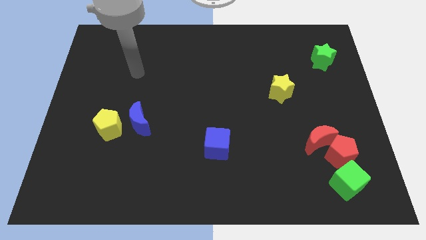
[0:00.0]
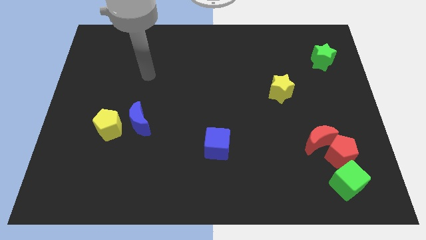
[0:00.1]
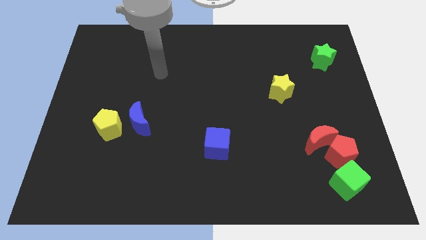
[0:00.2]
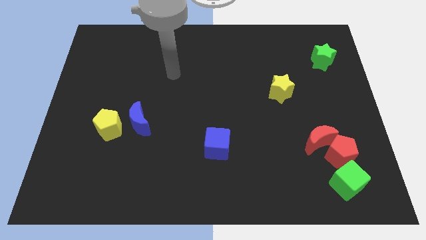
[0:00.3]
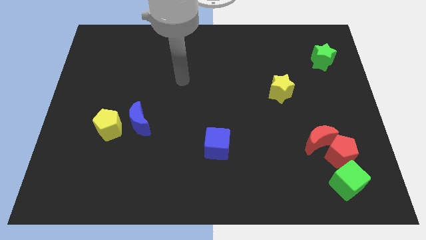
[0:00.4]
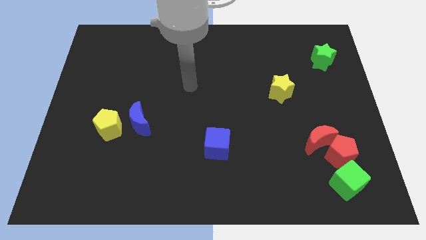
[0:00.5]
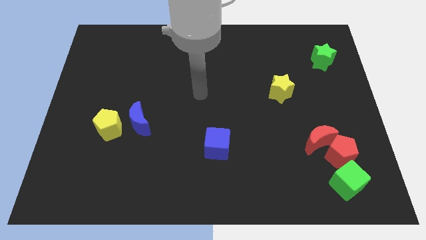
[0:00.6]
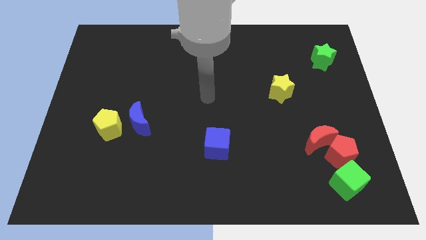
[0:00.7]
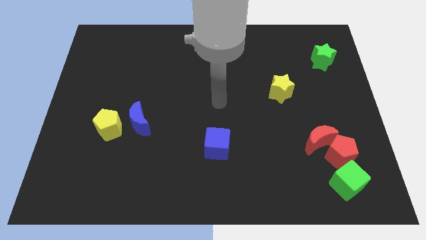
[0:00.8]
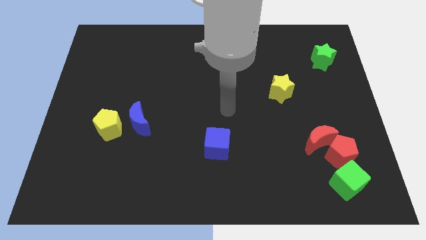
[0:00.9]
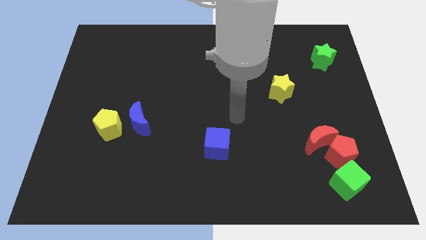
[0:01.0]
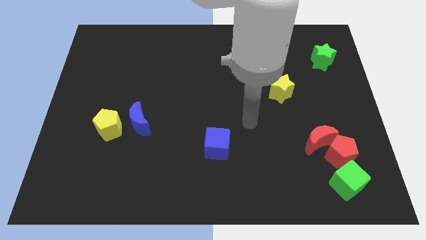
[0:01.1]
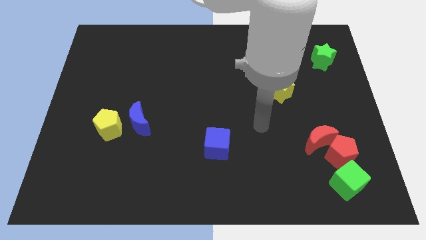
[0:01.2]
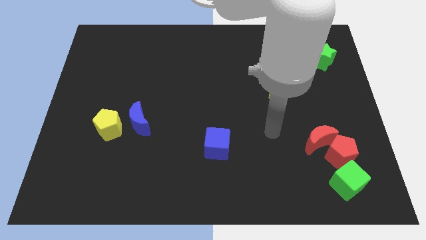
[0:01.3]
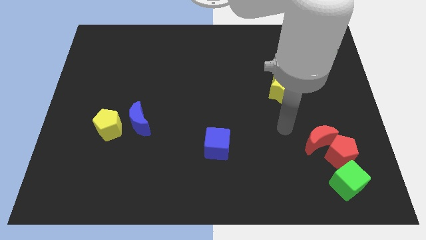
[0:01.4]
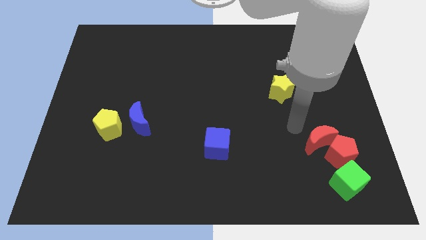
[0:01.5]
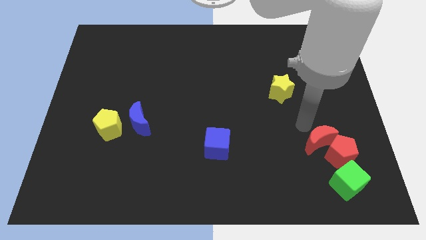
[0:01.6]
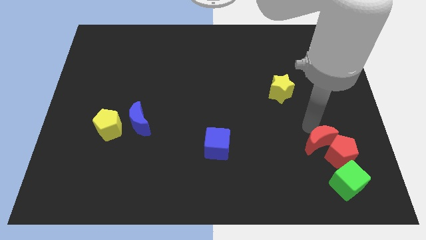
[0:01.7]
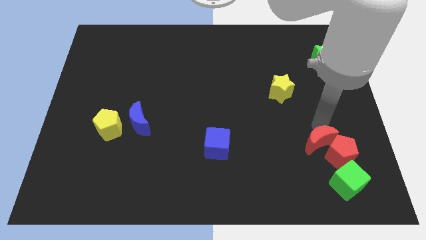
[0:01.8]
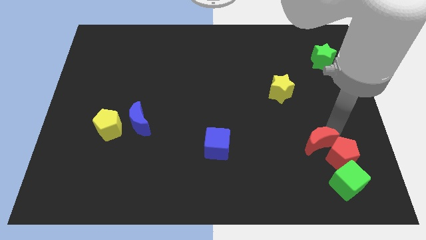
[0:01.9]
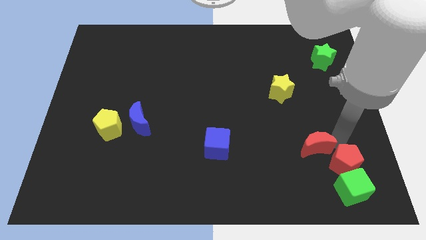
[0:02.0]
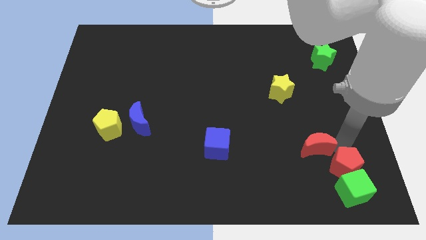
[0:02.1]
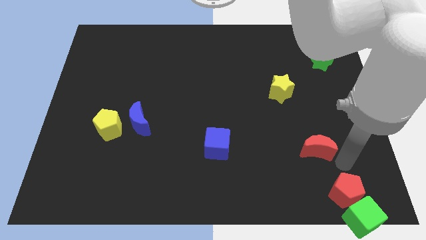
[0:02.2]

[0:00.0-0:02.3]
pull the red moon apart from the red pentagon

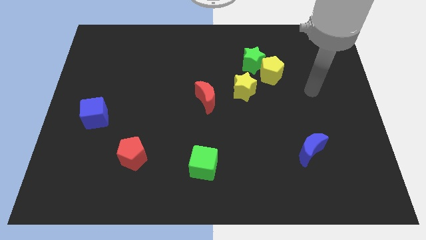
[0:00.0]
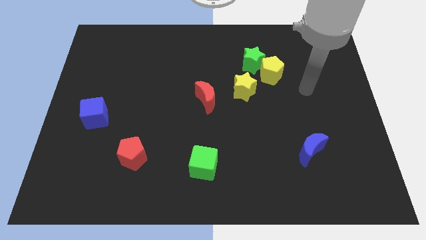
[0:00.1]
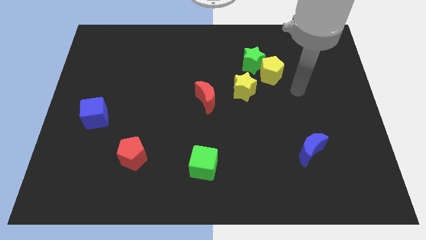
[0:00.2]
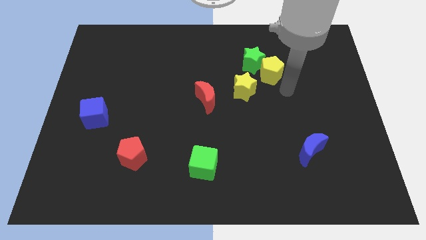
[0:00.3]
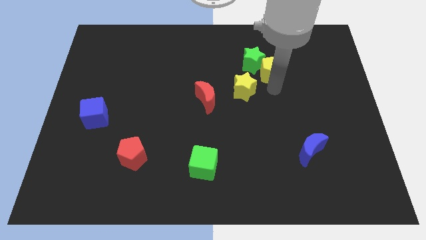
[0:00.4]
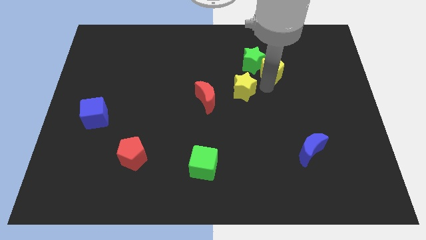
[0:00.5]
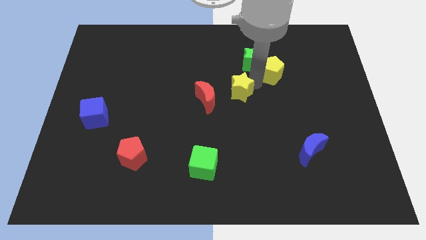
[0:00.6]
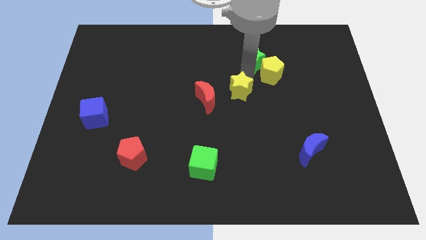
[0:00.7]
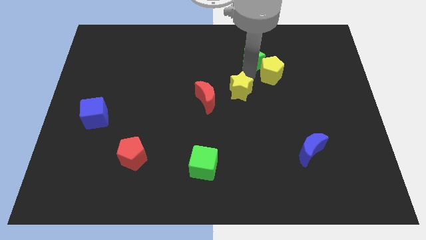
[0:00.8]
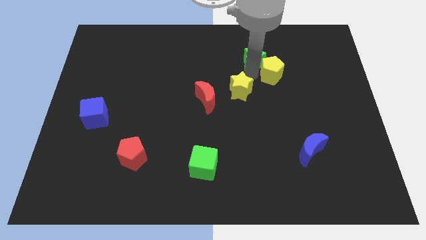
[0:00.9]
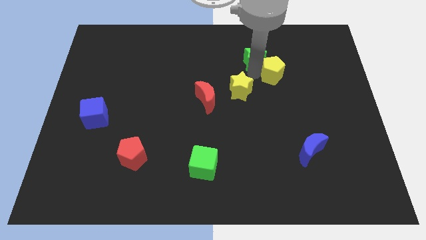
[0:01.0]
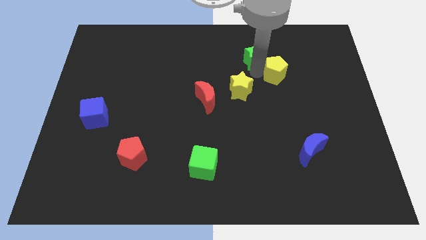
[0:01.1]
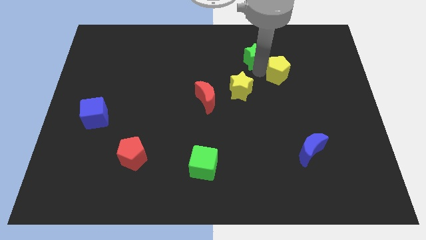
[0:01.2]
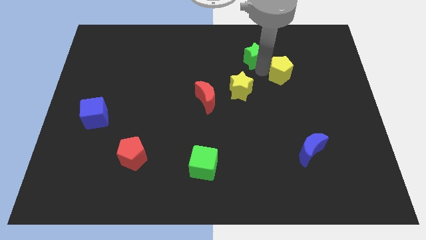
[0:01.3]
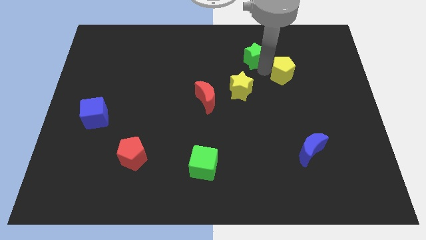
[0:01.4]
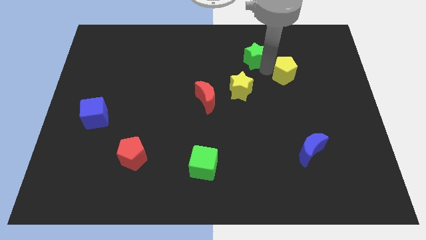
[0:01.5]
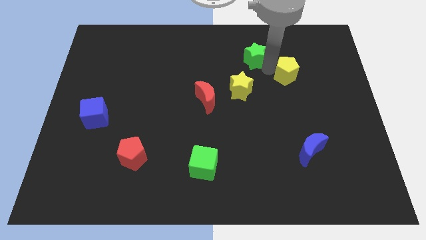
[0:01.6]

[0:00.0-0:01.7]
separate the yellow pentagon from the green star and yellow star

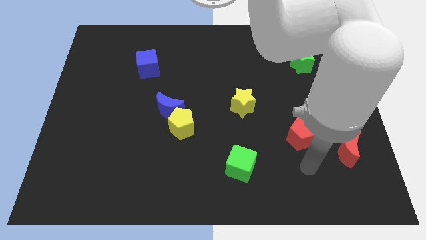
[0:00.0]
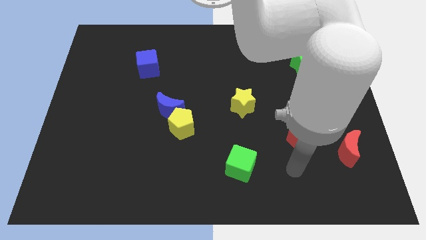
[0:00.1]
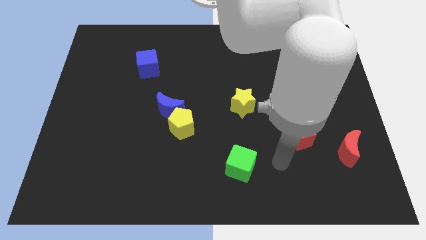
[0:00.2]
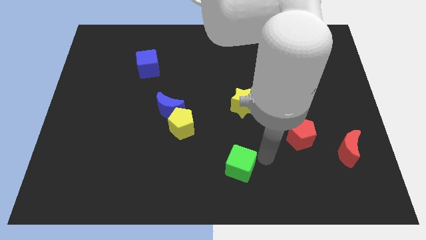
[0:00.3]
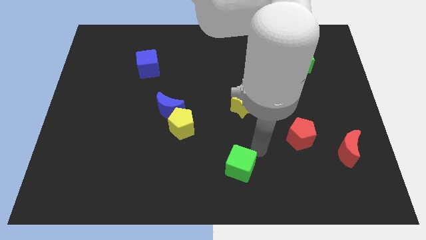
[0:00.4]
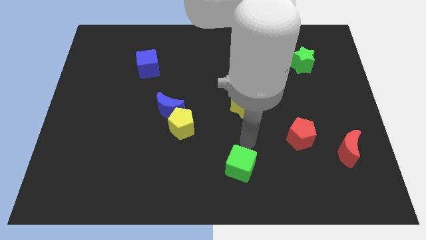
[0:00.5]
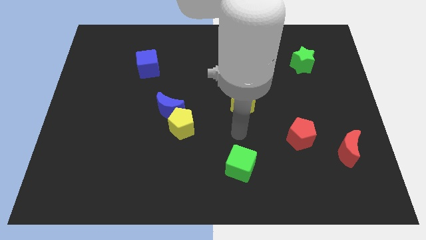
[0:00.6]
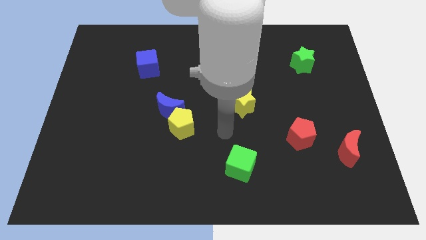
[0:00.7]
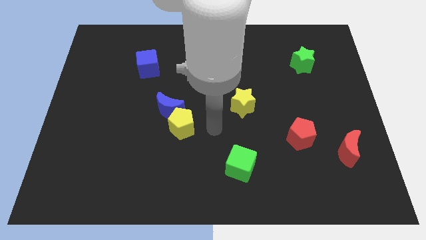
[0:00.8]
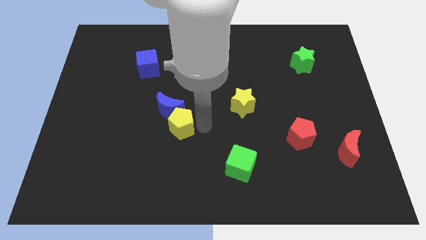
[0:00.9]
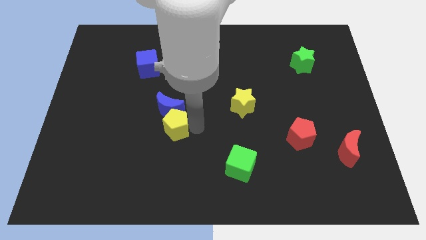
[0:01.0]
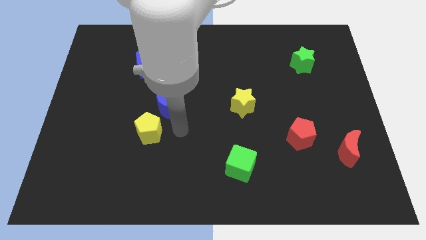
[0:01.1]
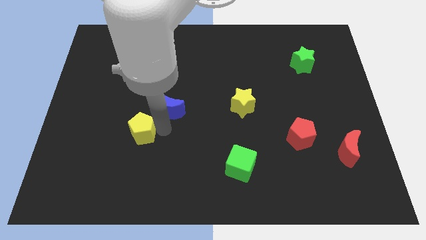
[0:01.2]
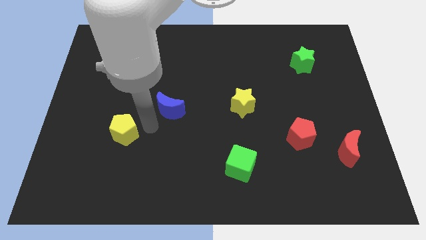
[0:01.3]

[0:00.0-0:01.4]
move the blue moon away from the yellow pentagon

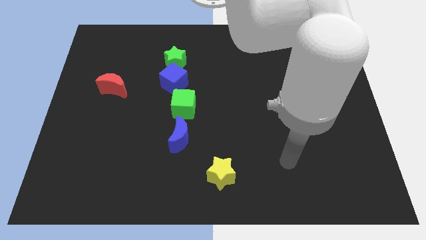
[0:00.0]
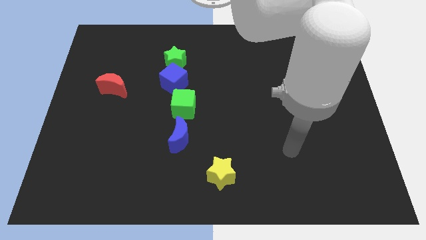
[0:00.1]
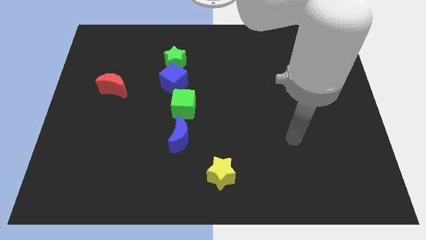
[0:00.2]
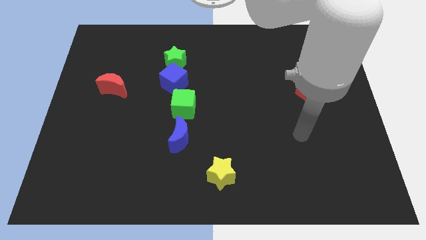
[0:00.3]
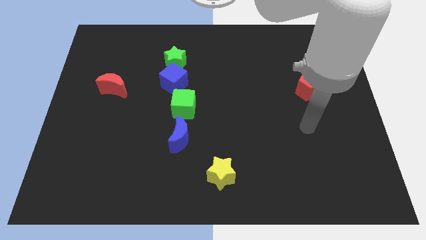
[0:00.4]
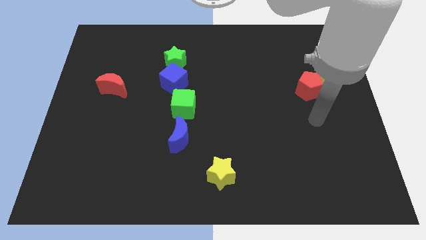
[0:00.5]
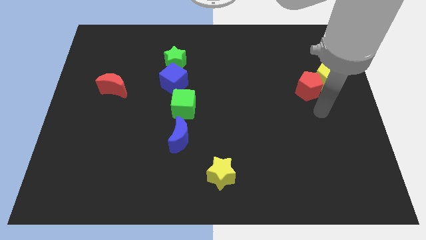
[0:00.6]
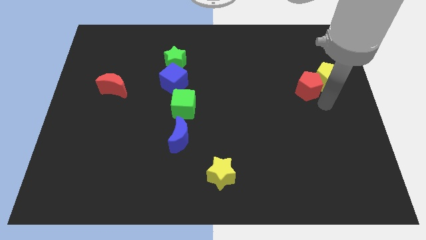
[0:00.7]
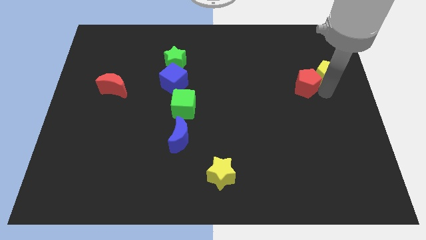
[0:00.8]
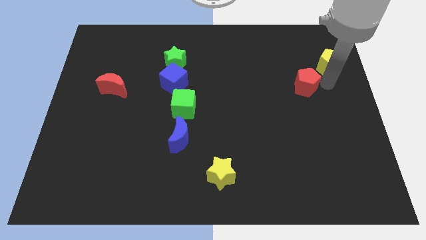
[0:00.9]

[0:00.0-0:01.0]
move the red pentagon away from the yellow pentagon

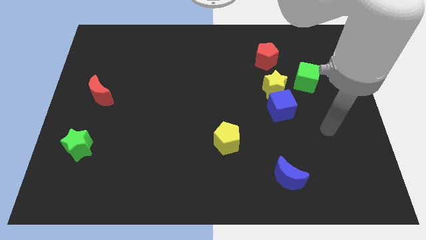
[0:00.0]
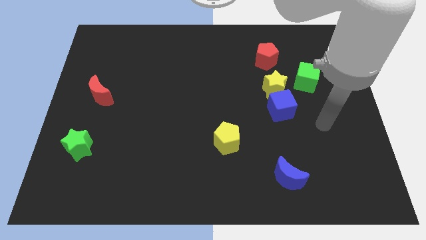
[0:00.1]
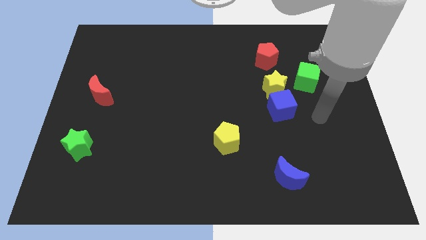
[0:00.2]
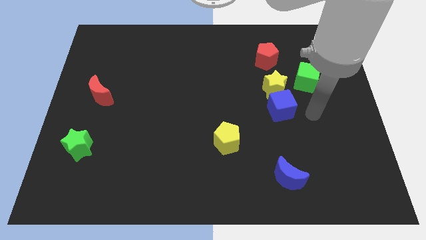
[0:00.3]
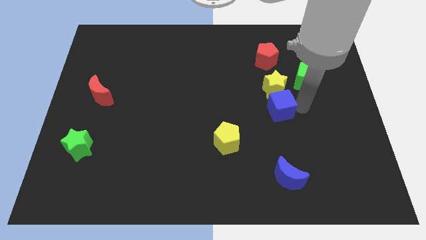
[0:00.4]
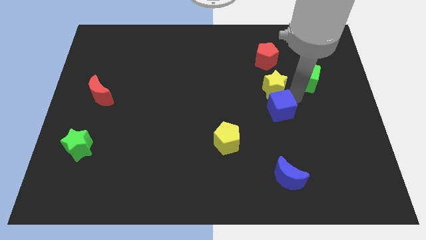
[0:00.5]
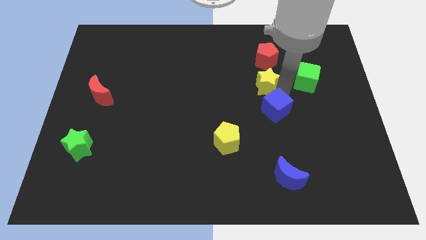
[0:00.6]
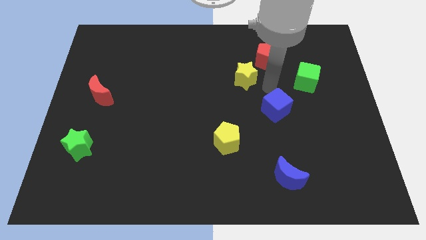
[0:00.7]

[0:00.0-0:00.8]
separate the blue cube from the yellow star

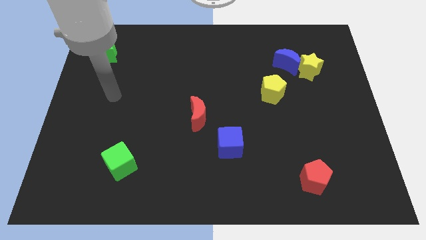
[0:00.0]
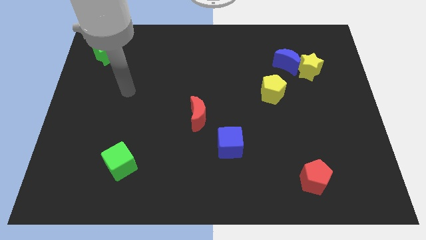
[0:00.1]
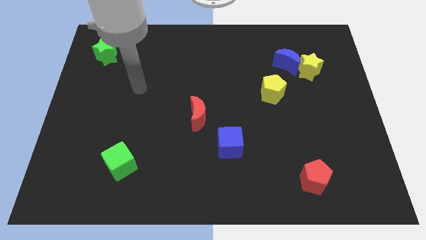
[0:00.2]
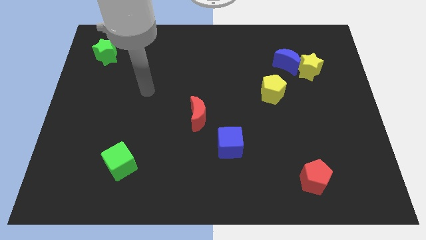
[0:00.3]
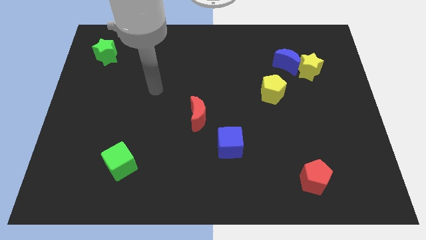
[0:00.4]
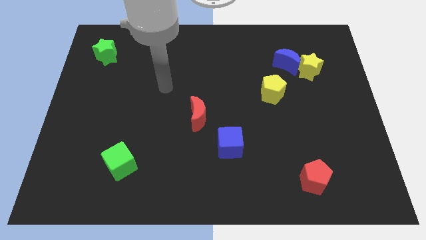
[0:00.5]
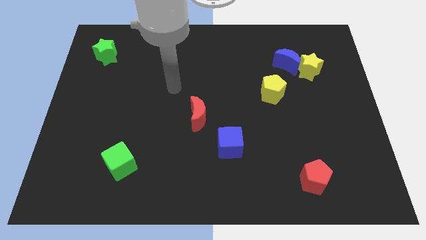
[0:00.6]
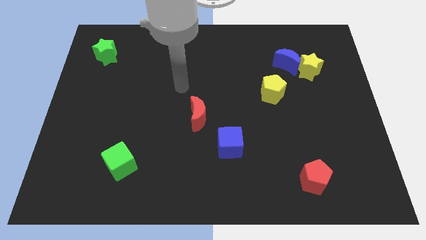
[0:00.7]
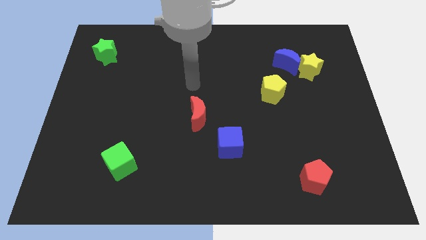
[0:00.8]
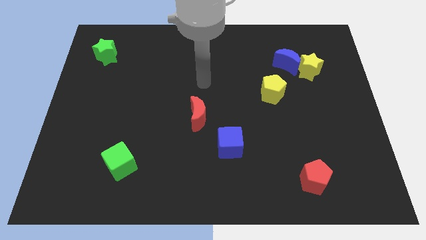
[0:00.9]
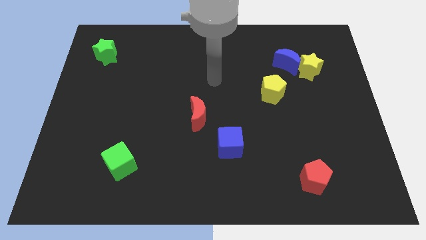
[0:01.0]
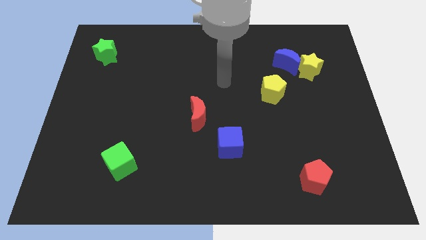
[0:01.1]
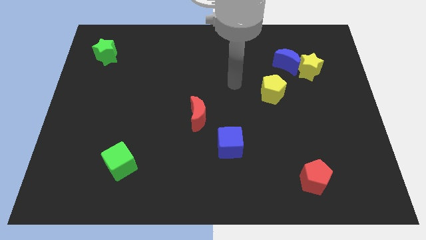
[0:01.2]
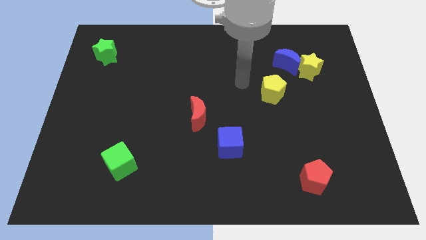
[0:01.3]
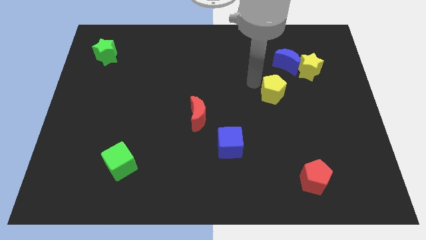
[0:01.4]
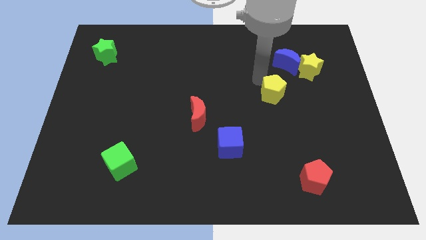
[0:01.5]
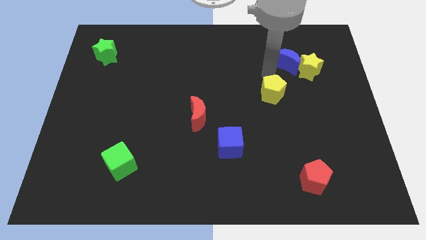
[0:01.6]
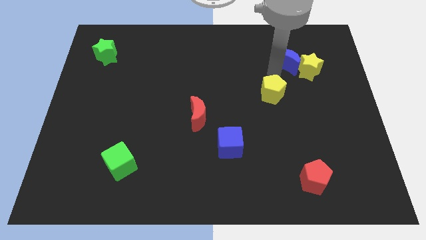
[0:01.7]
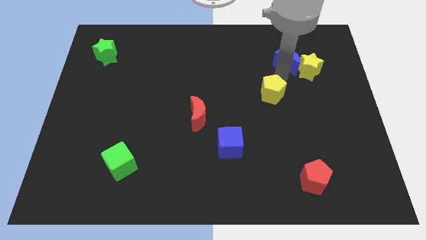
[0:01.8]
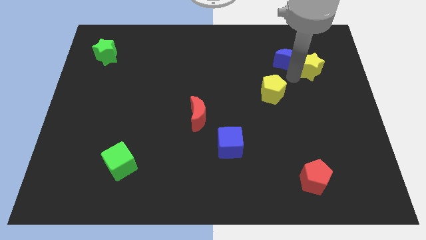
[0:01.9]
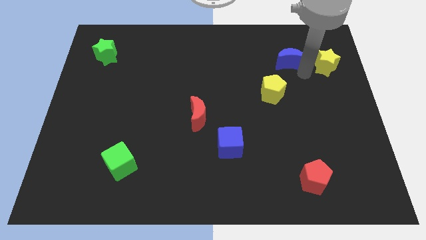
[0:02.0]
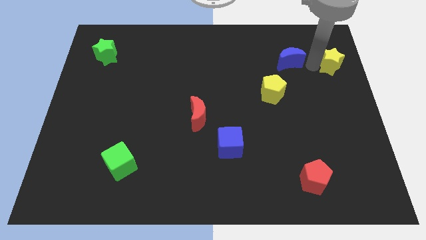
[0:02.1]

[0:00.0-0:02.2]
move the blue moon away from the yellow star
